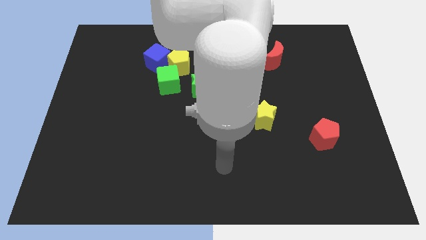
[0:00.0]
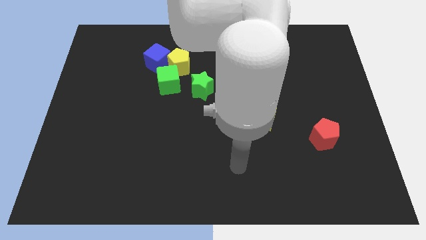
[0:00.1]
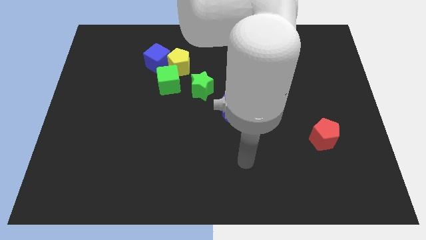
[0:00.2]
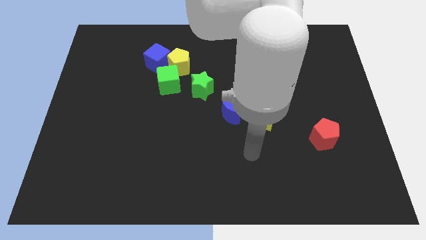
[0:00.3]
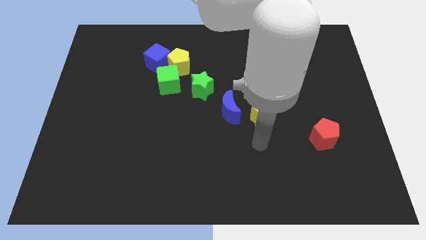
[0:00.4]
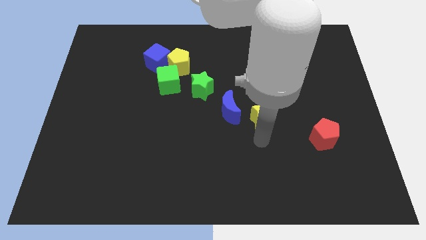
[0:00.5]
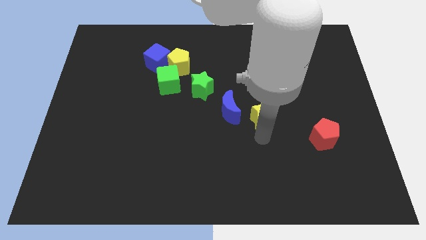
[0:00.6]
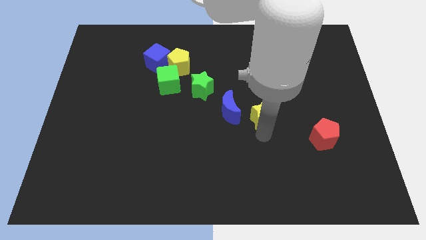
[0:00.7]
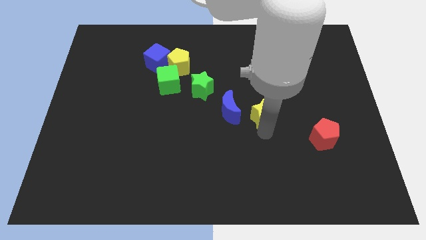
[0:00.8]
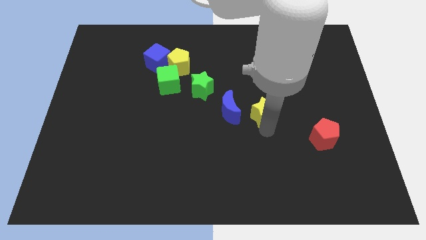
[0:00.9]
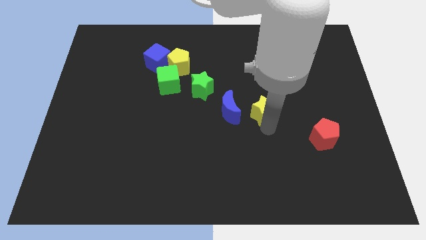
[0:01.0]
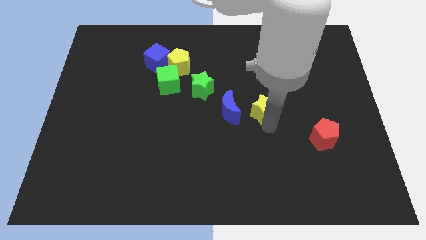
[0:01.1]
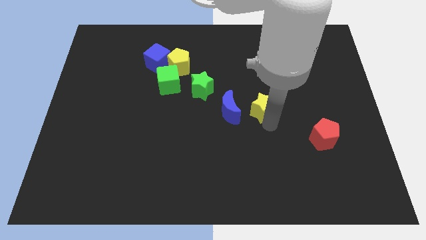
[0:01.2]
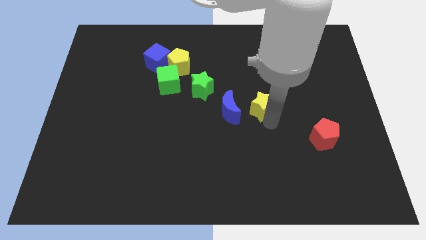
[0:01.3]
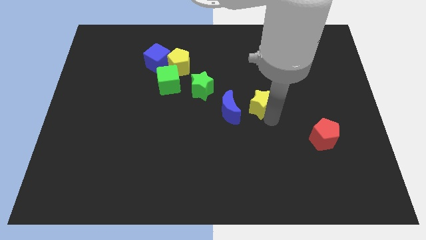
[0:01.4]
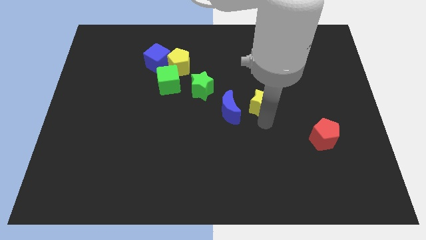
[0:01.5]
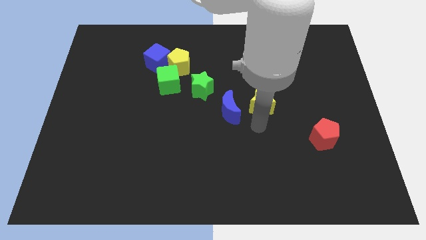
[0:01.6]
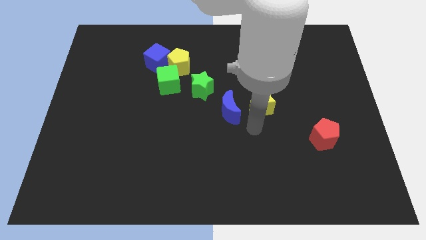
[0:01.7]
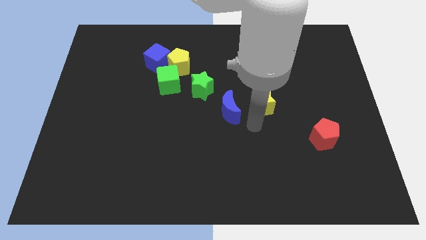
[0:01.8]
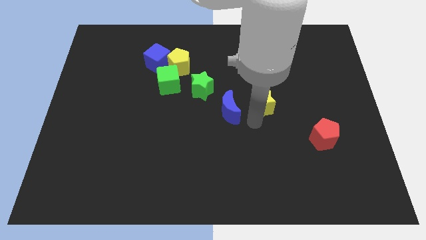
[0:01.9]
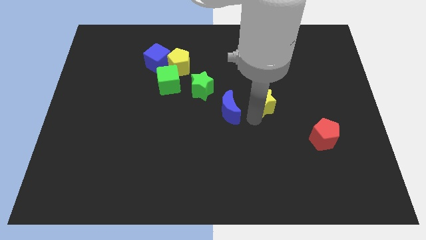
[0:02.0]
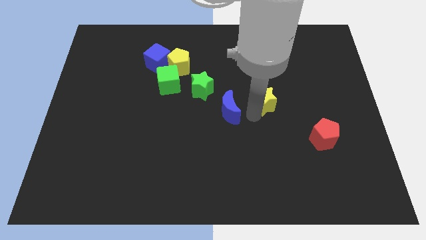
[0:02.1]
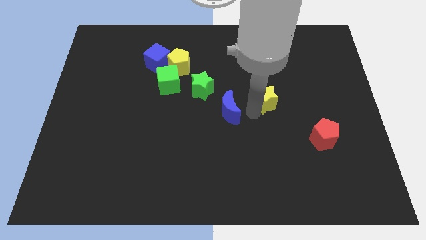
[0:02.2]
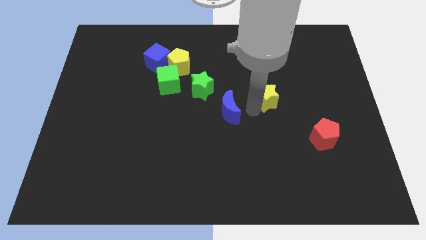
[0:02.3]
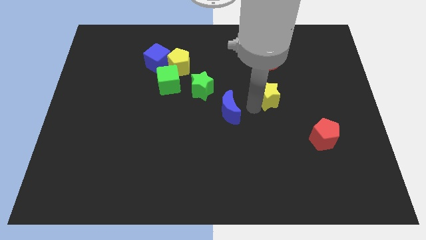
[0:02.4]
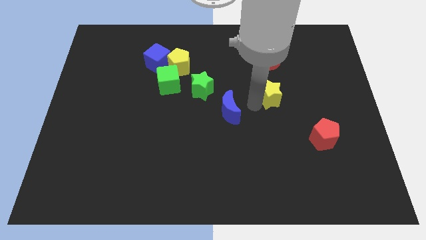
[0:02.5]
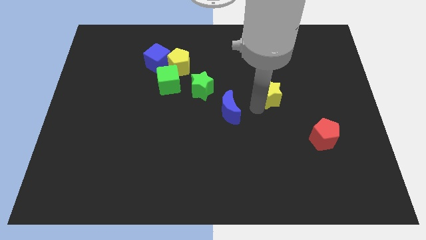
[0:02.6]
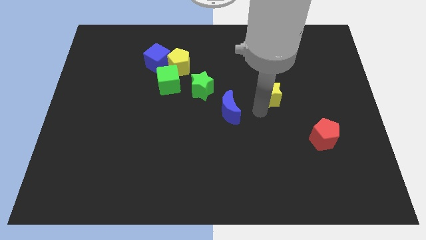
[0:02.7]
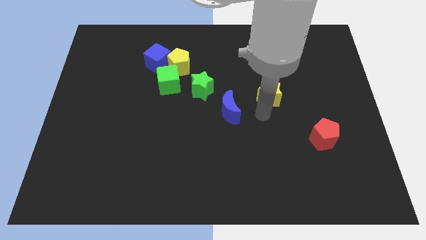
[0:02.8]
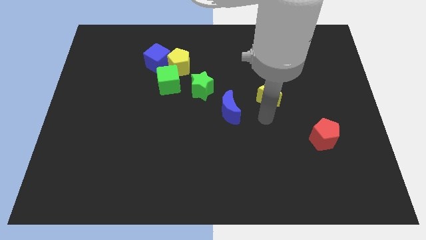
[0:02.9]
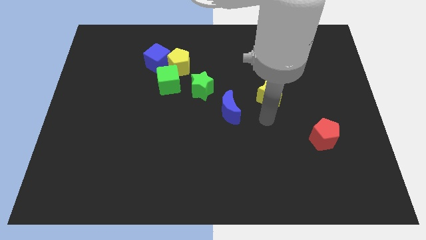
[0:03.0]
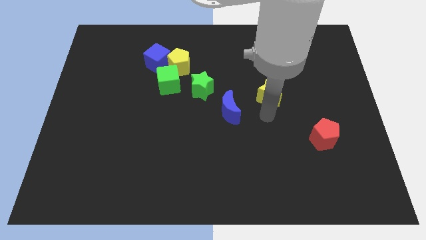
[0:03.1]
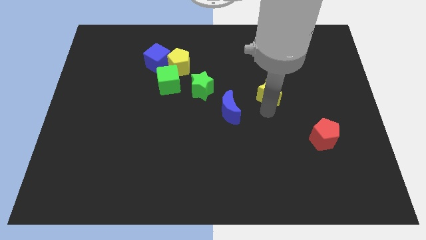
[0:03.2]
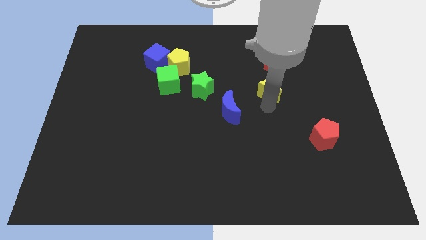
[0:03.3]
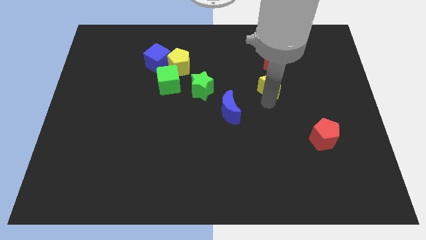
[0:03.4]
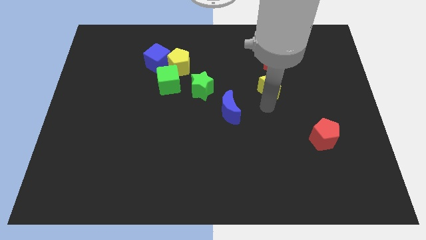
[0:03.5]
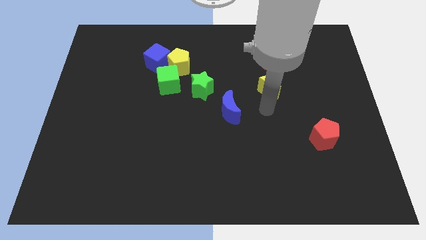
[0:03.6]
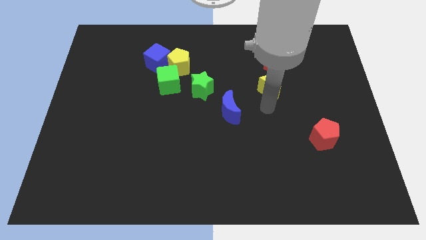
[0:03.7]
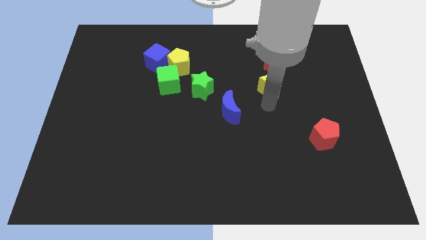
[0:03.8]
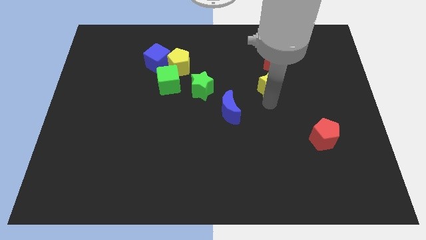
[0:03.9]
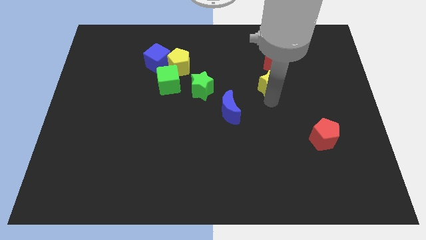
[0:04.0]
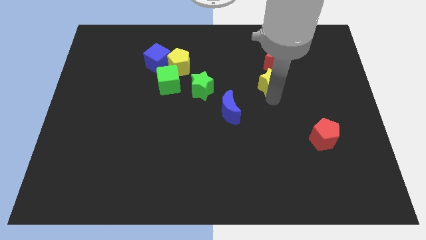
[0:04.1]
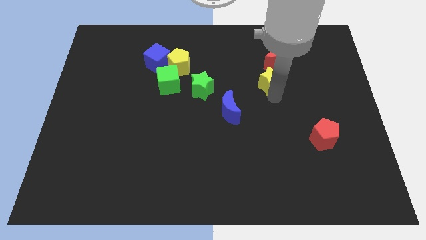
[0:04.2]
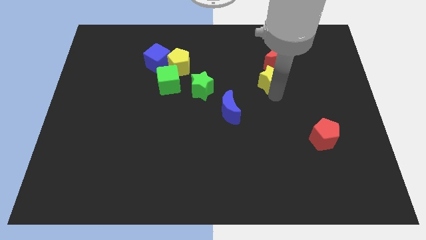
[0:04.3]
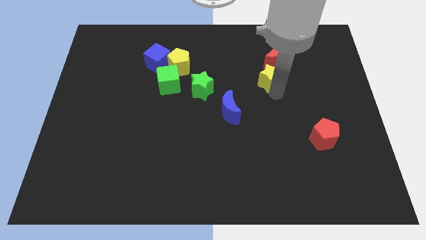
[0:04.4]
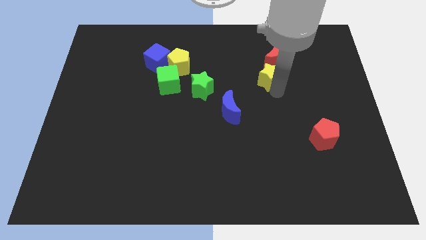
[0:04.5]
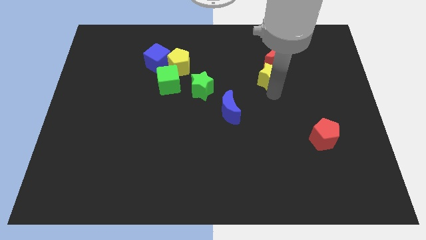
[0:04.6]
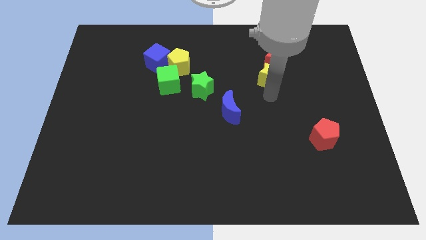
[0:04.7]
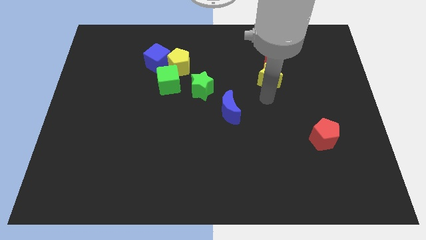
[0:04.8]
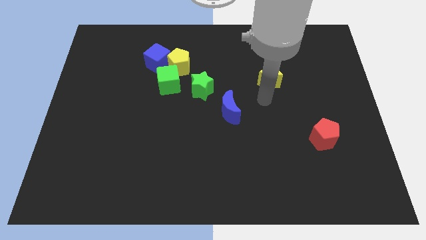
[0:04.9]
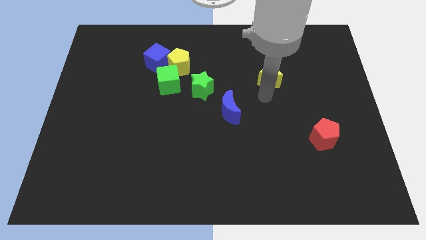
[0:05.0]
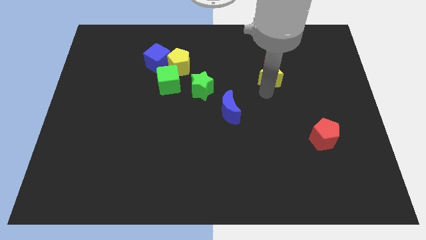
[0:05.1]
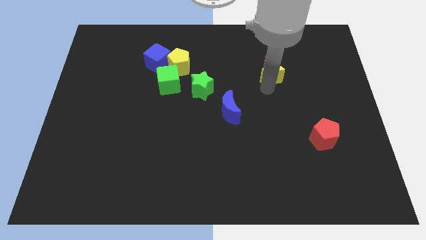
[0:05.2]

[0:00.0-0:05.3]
put the yellow star to the red moon

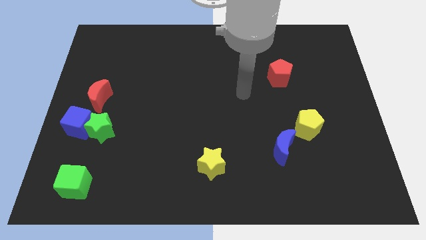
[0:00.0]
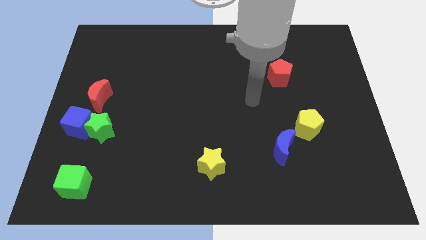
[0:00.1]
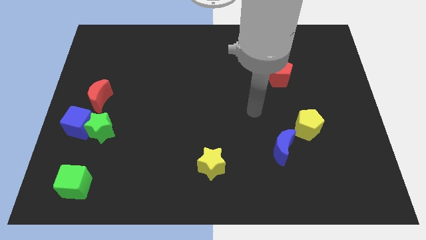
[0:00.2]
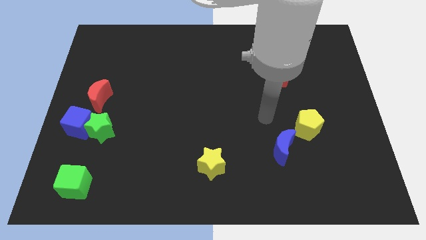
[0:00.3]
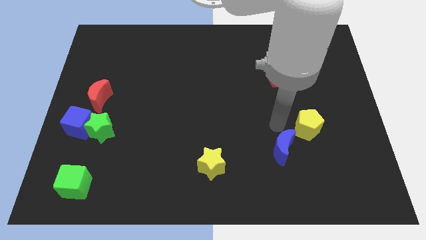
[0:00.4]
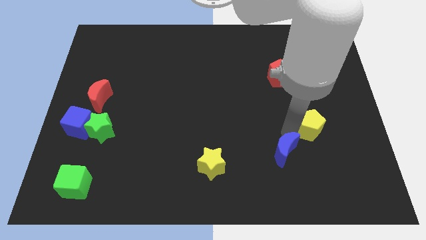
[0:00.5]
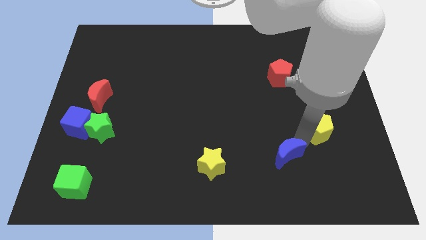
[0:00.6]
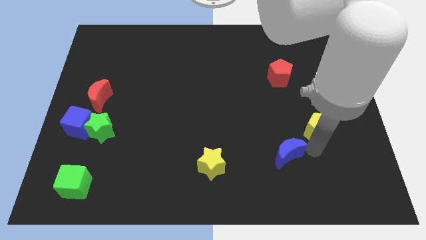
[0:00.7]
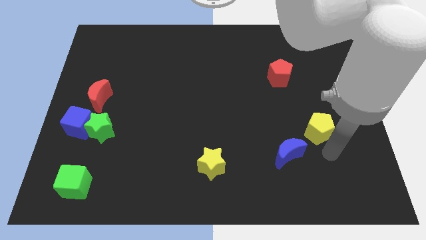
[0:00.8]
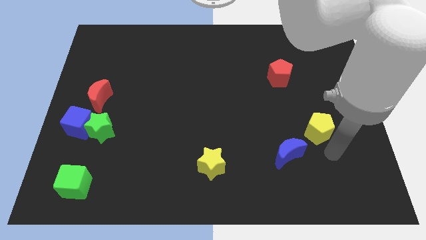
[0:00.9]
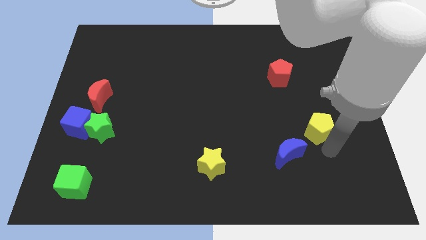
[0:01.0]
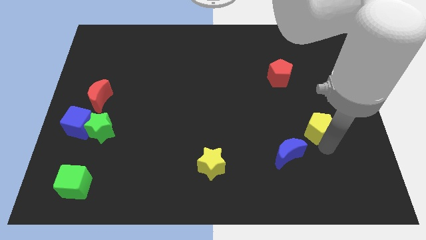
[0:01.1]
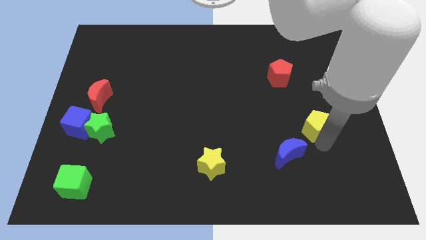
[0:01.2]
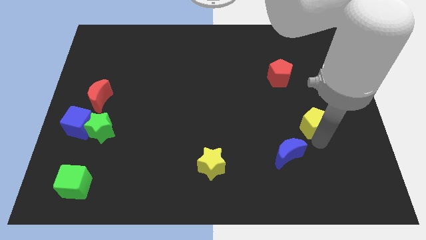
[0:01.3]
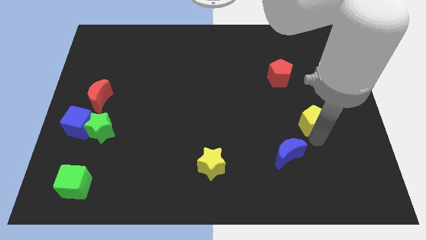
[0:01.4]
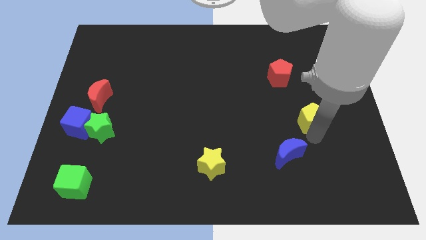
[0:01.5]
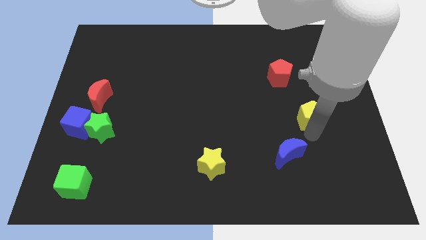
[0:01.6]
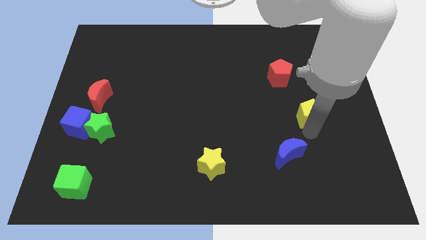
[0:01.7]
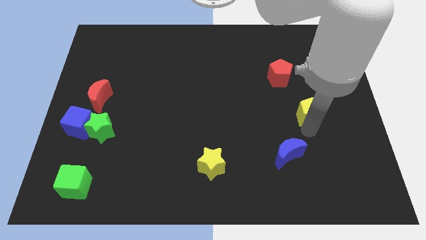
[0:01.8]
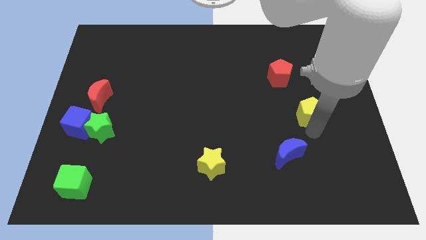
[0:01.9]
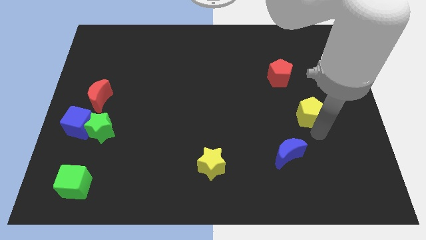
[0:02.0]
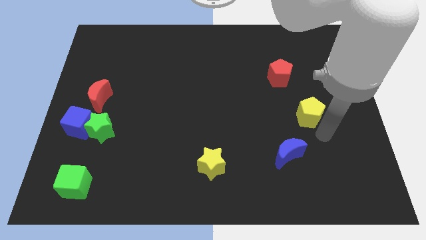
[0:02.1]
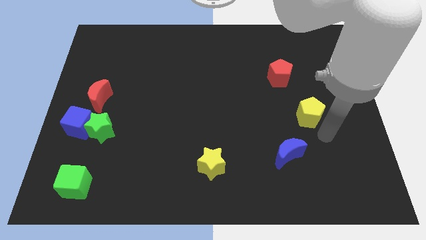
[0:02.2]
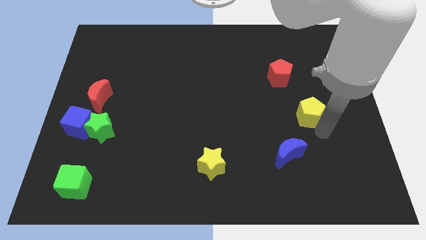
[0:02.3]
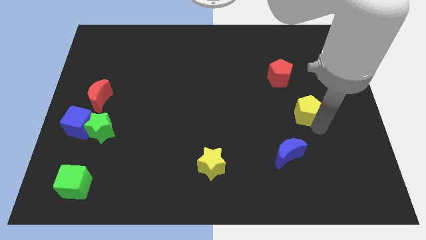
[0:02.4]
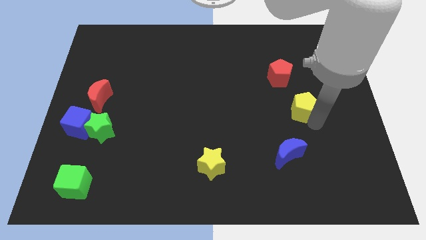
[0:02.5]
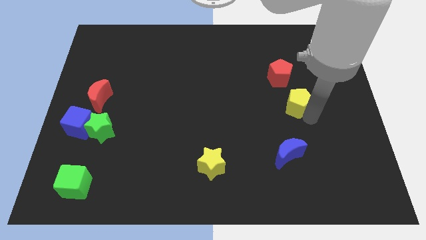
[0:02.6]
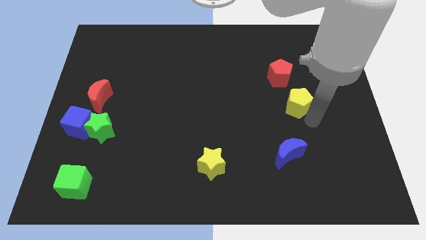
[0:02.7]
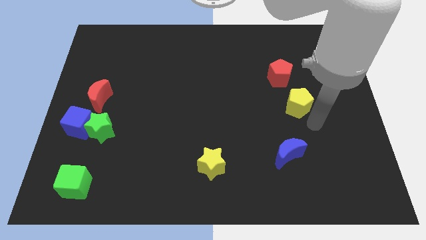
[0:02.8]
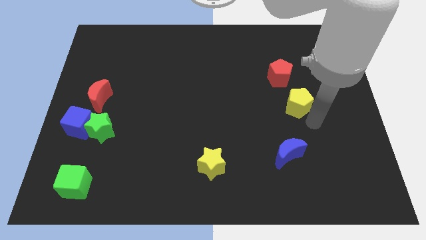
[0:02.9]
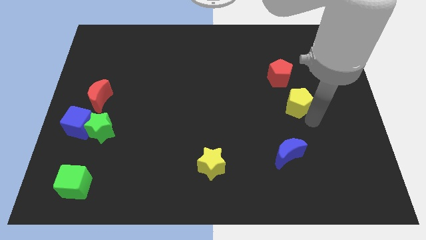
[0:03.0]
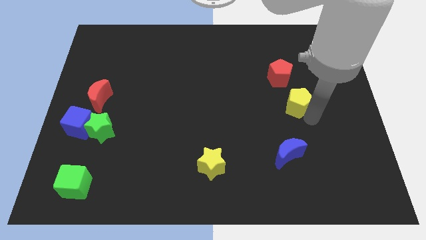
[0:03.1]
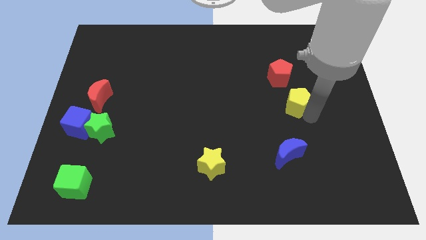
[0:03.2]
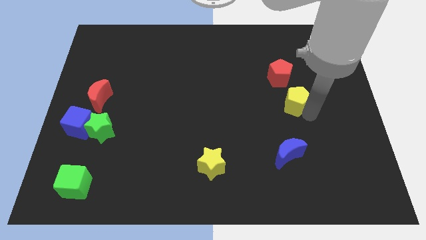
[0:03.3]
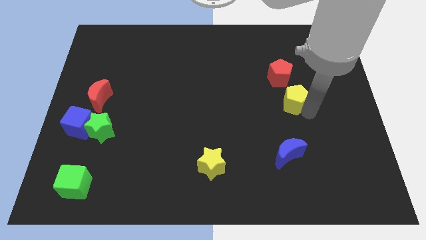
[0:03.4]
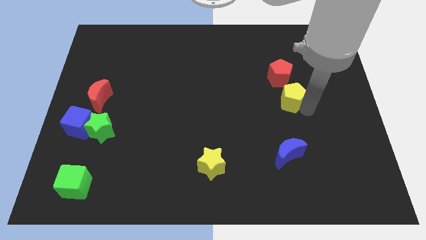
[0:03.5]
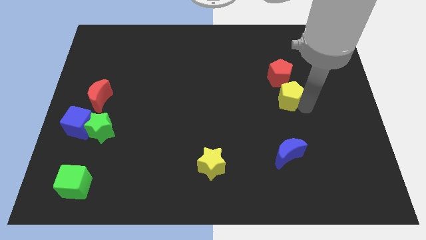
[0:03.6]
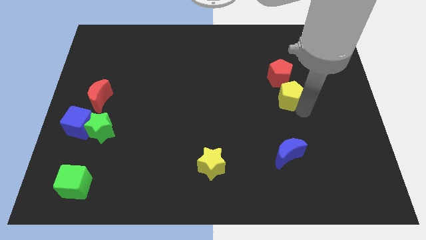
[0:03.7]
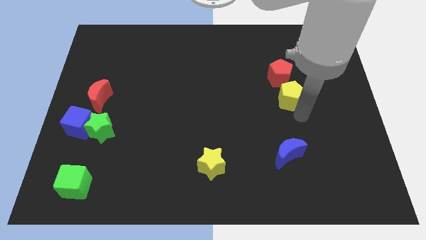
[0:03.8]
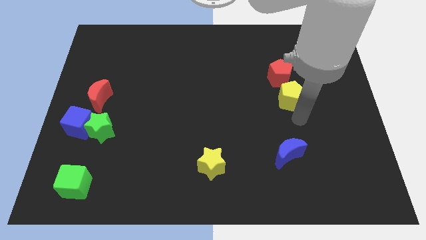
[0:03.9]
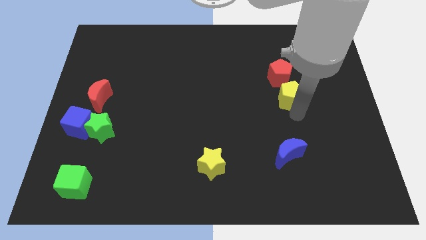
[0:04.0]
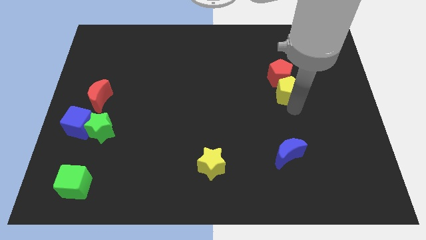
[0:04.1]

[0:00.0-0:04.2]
put the yellow pentagon to the red pentagon
